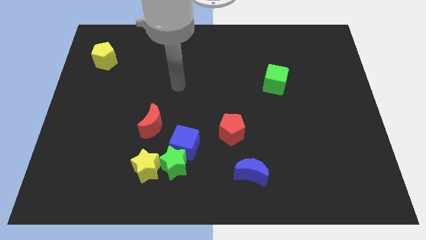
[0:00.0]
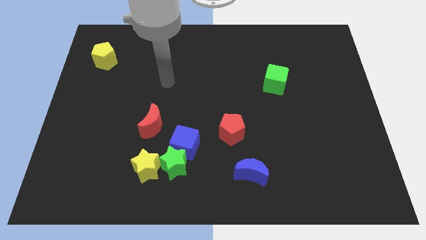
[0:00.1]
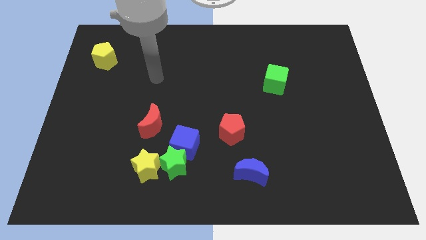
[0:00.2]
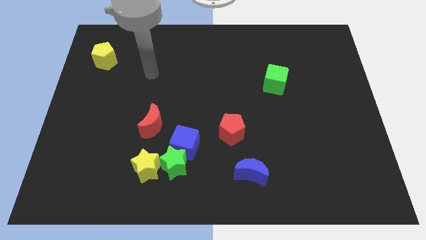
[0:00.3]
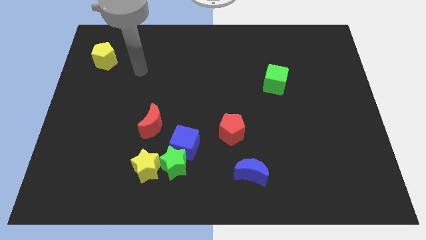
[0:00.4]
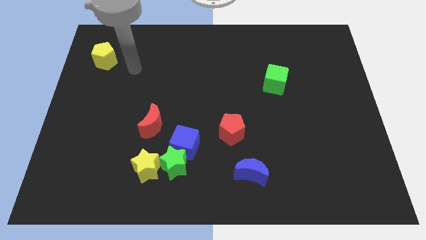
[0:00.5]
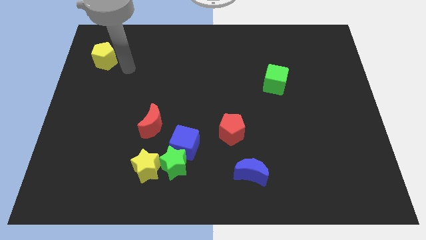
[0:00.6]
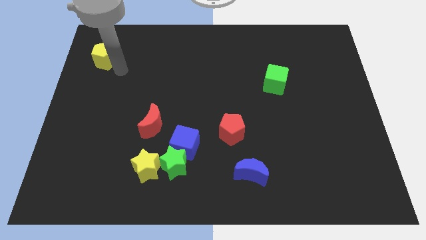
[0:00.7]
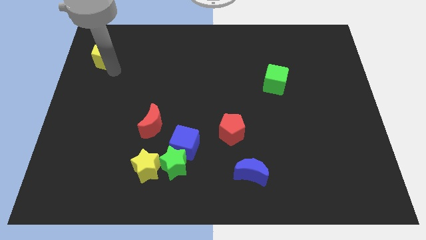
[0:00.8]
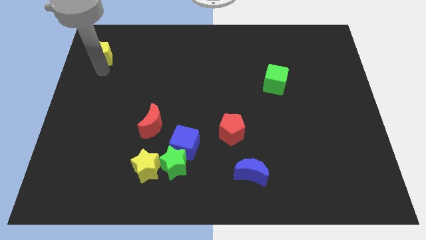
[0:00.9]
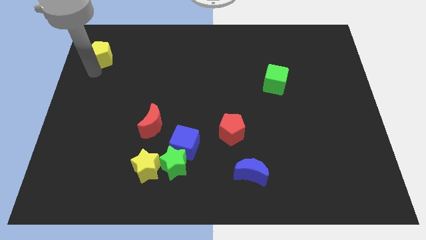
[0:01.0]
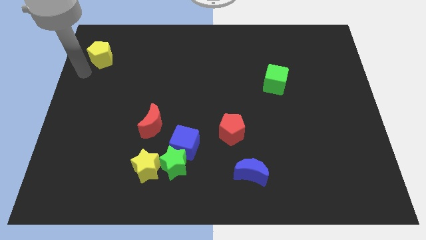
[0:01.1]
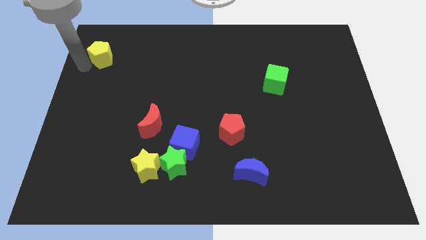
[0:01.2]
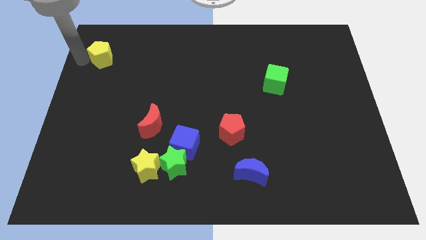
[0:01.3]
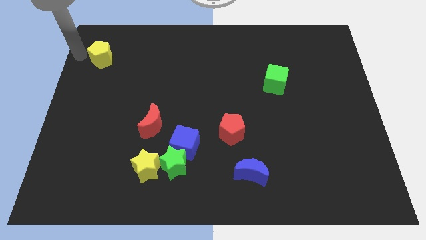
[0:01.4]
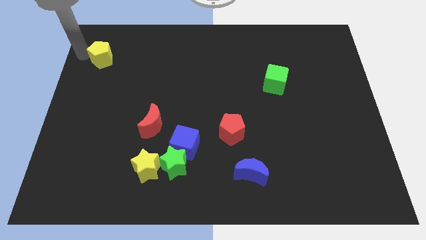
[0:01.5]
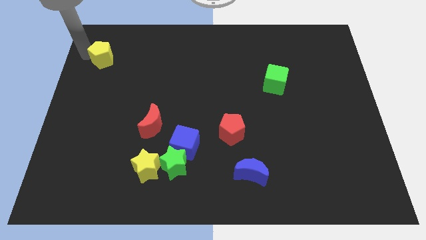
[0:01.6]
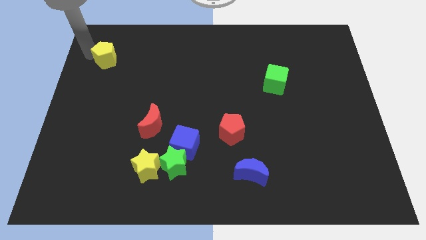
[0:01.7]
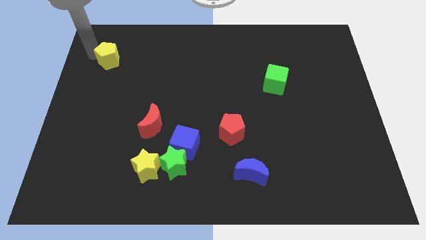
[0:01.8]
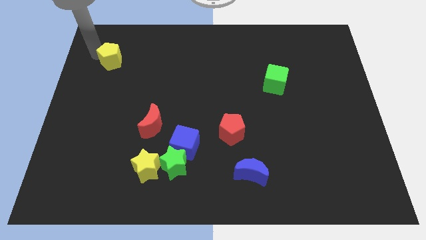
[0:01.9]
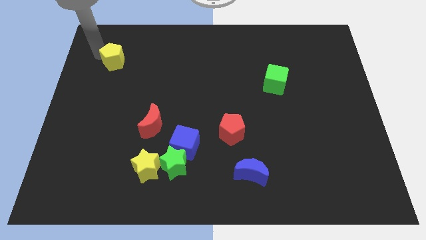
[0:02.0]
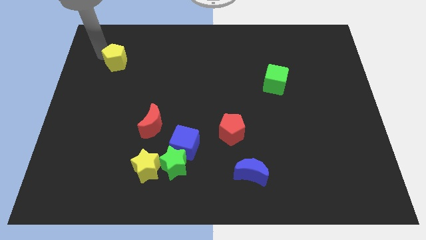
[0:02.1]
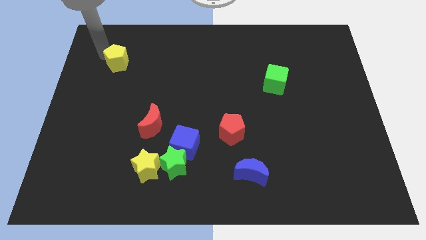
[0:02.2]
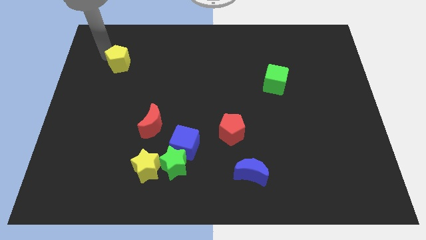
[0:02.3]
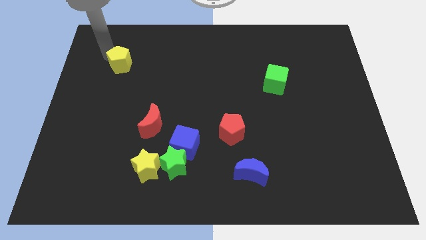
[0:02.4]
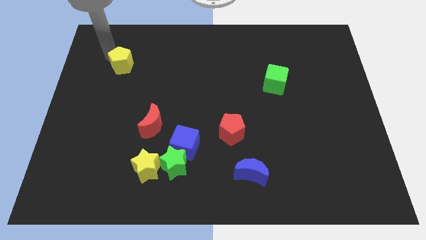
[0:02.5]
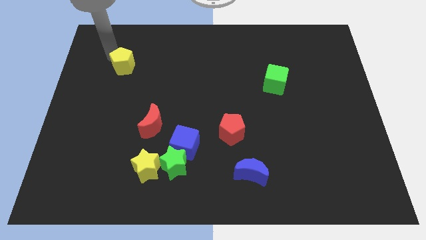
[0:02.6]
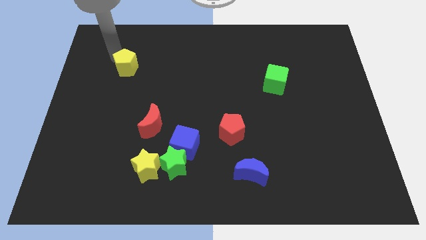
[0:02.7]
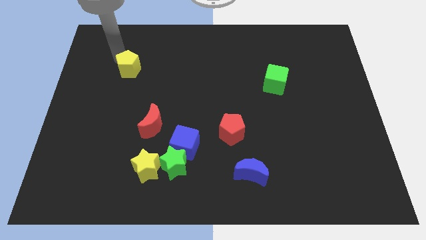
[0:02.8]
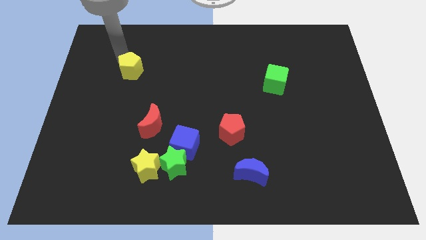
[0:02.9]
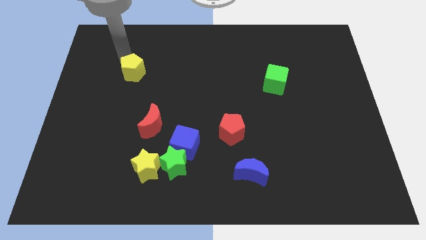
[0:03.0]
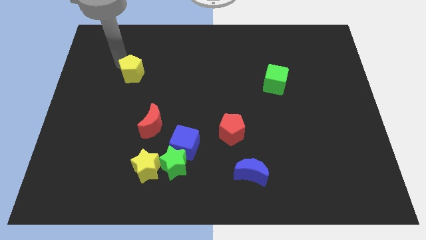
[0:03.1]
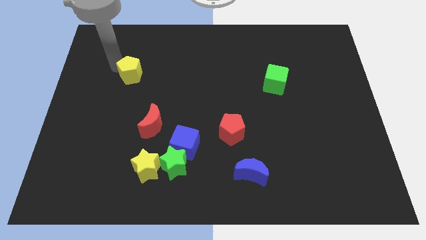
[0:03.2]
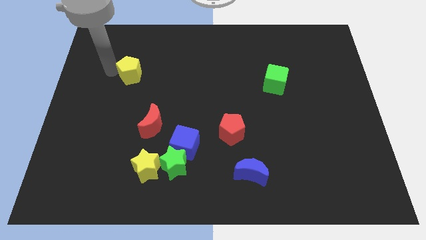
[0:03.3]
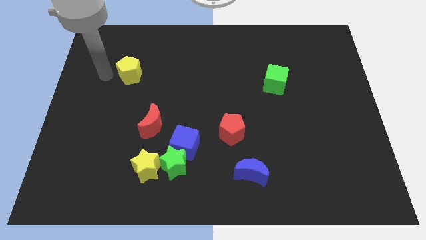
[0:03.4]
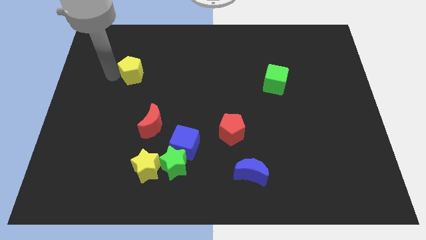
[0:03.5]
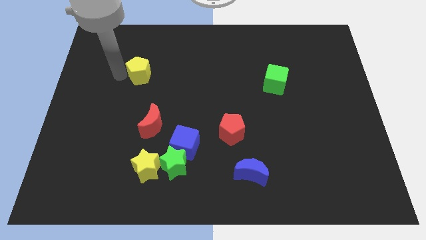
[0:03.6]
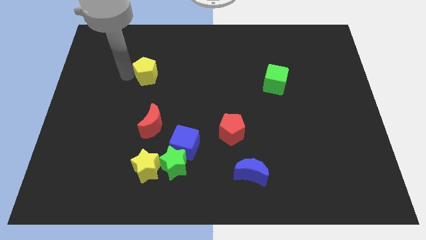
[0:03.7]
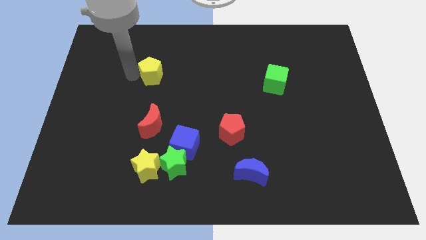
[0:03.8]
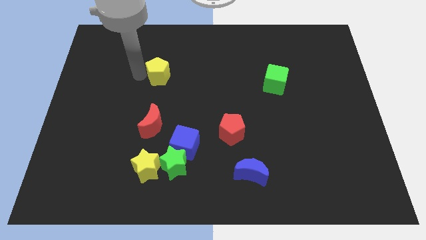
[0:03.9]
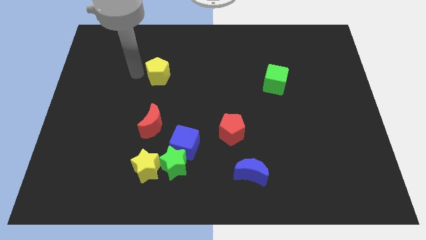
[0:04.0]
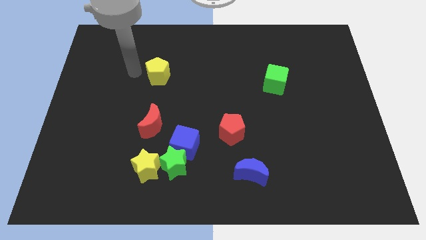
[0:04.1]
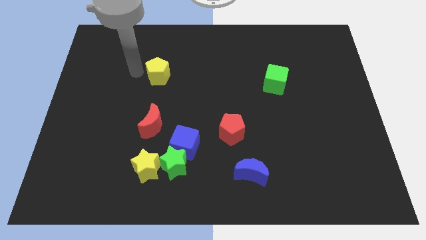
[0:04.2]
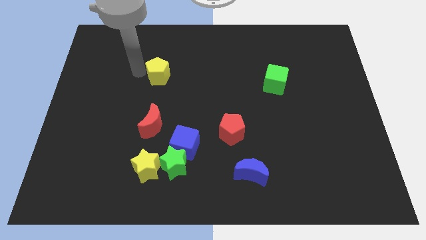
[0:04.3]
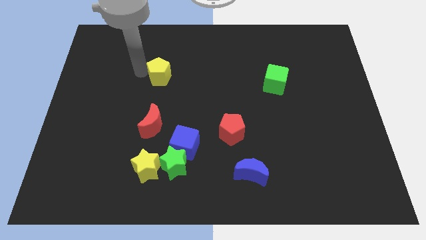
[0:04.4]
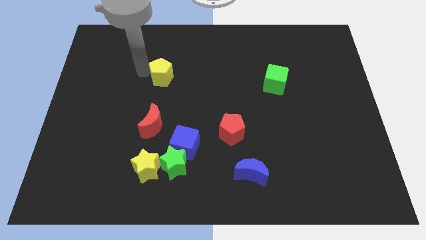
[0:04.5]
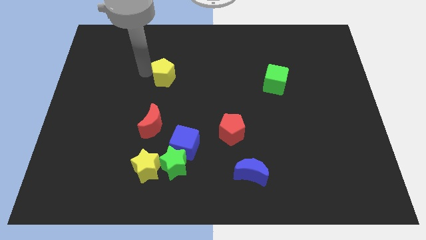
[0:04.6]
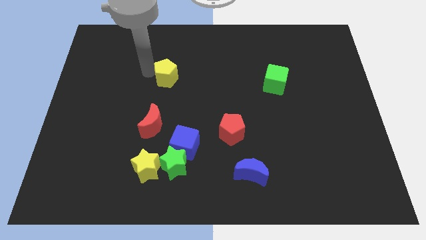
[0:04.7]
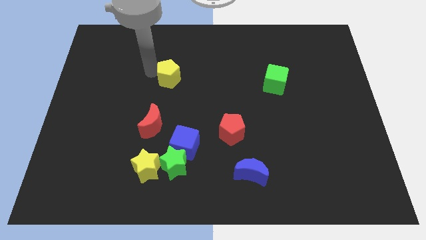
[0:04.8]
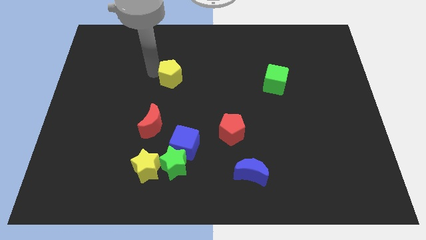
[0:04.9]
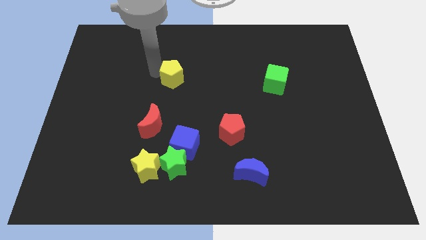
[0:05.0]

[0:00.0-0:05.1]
slide the yellow pentagon to the middle of the board

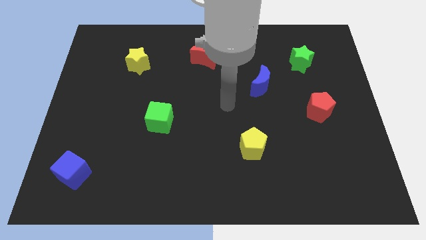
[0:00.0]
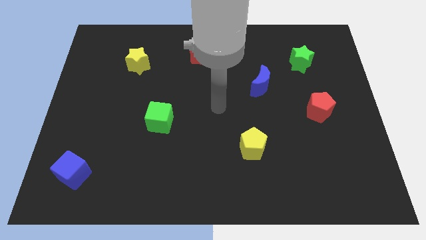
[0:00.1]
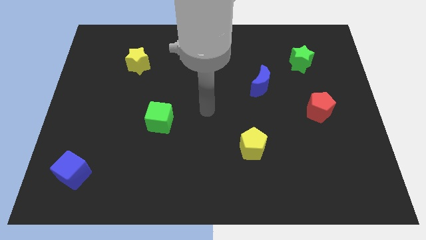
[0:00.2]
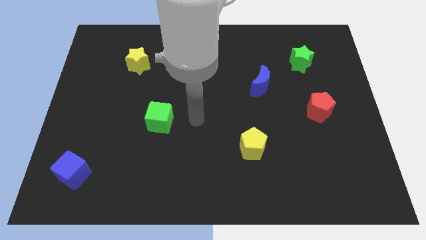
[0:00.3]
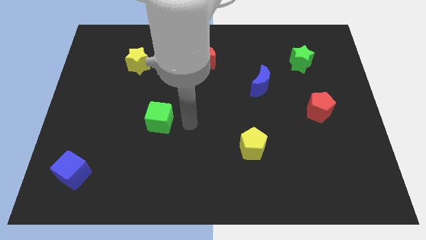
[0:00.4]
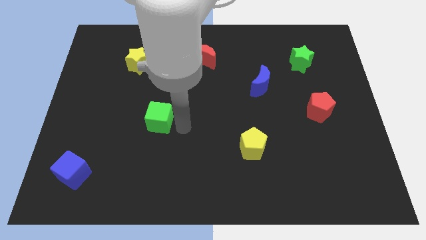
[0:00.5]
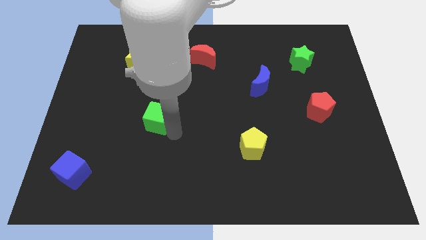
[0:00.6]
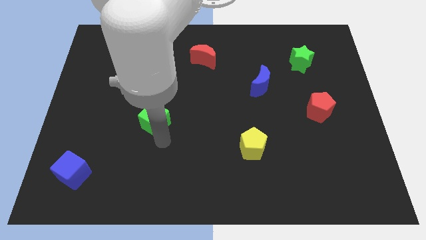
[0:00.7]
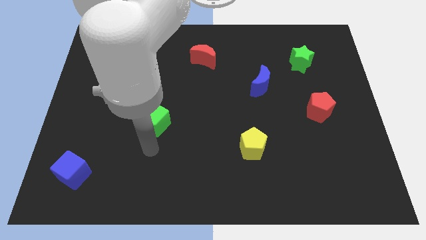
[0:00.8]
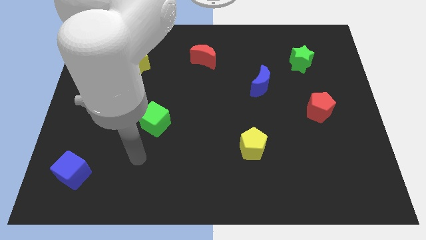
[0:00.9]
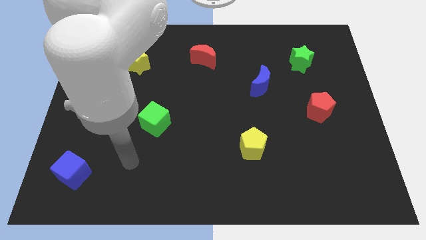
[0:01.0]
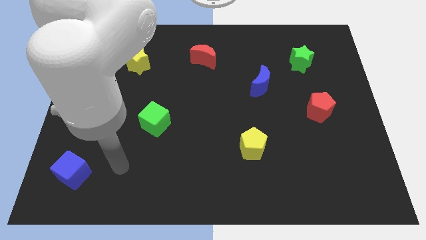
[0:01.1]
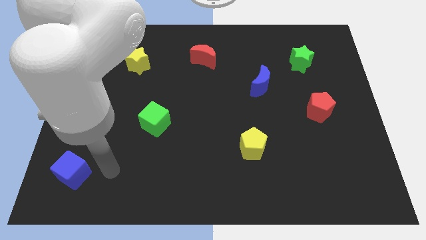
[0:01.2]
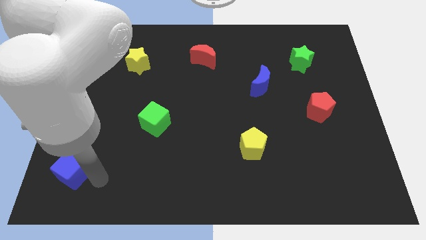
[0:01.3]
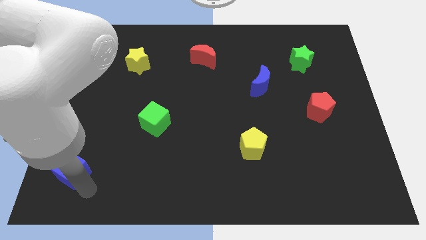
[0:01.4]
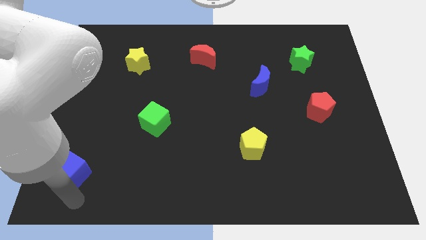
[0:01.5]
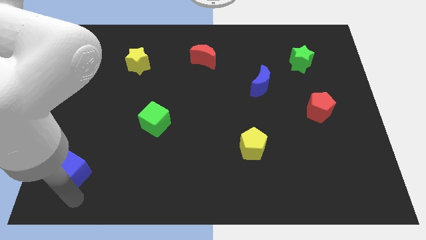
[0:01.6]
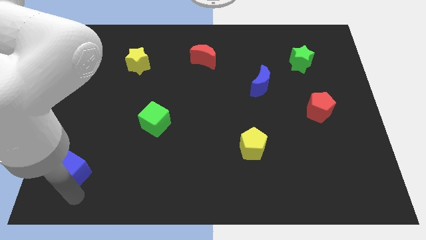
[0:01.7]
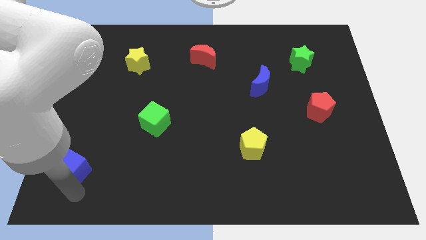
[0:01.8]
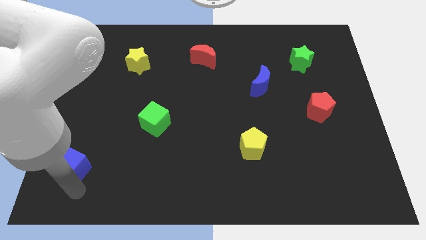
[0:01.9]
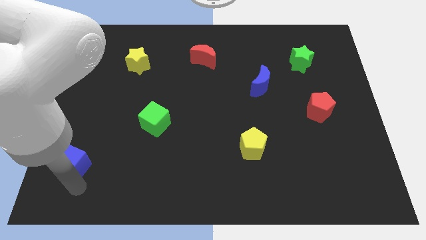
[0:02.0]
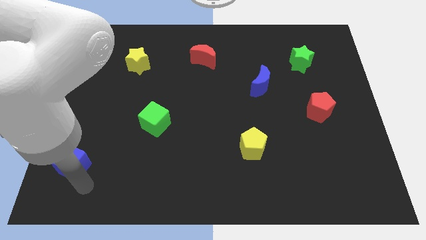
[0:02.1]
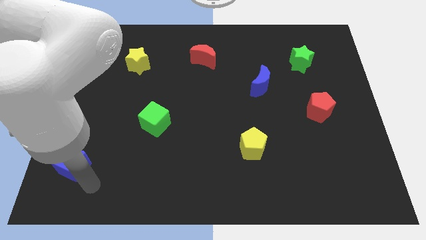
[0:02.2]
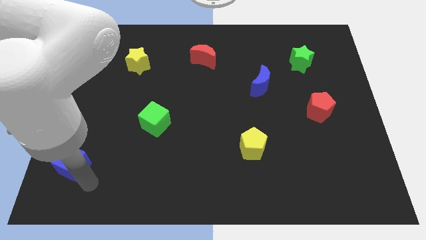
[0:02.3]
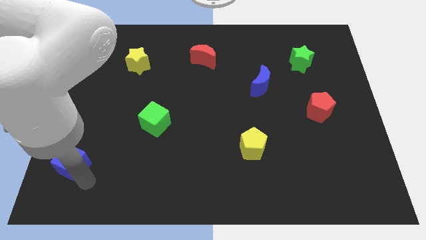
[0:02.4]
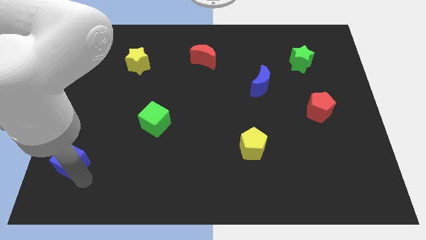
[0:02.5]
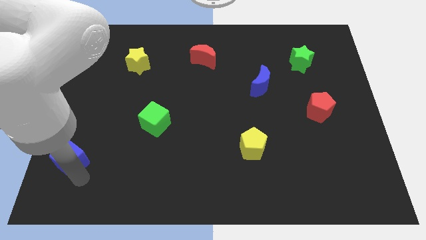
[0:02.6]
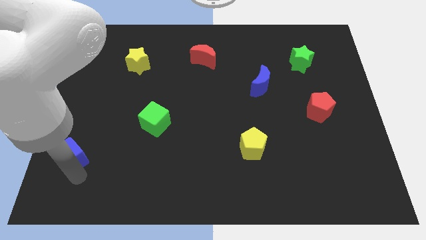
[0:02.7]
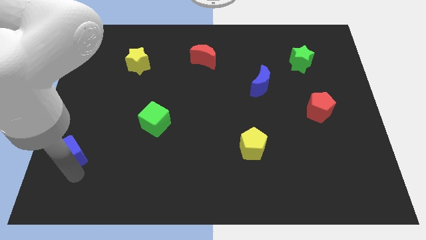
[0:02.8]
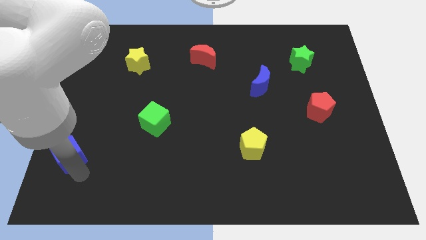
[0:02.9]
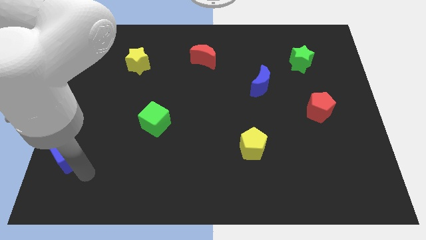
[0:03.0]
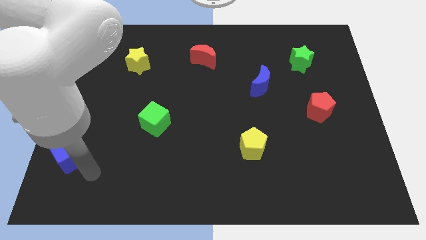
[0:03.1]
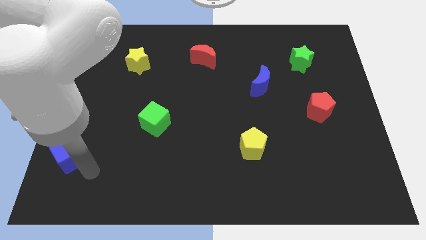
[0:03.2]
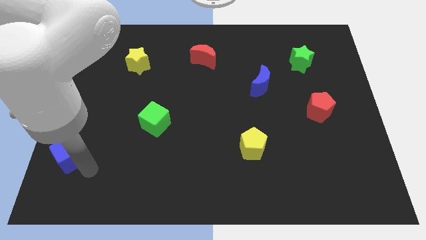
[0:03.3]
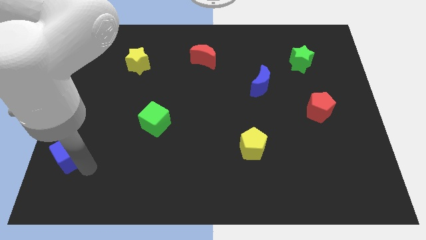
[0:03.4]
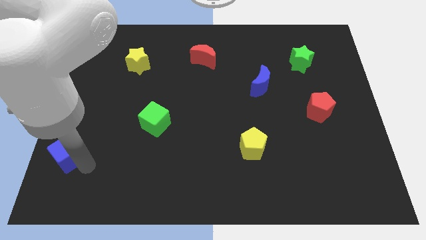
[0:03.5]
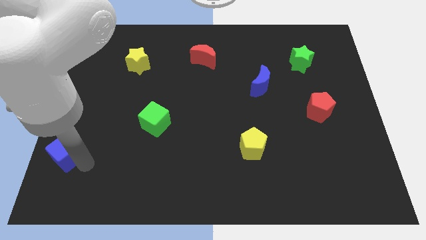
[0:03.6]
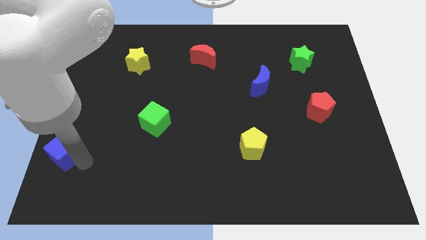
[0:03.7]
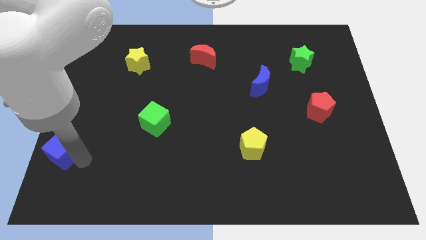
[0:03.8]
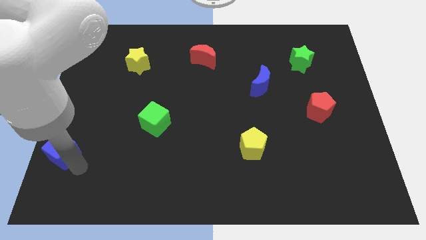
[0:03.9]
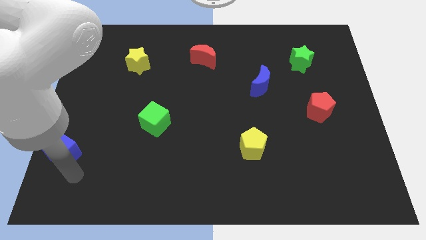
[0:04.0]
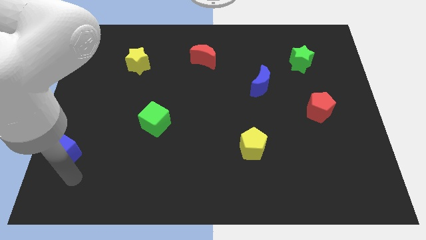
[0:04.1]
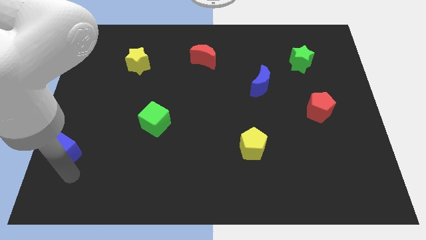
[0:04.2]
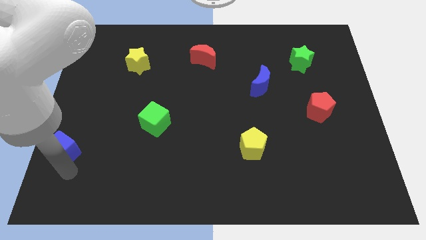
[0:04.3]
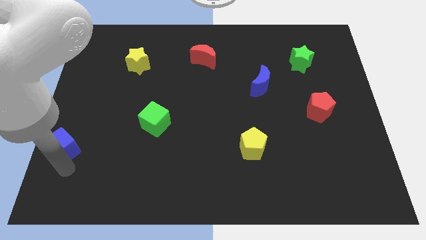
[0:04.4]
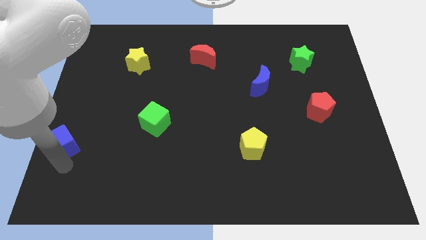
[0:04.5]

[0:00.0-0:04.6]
move the blue cube to the left side
